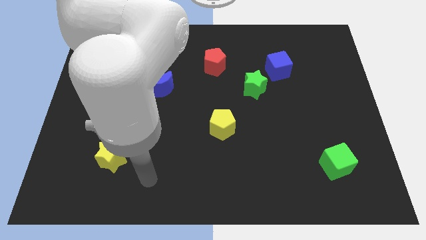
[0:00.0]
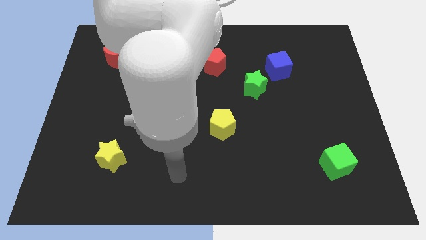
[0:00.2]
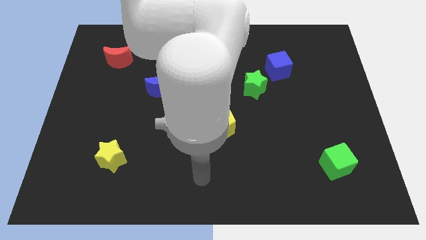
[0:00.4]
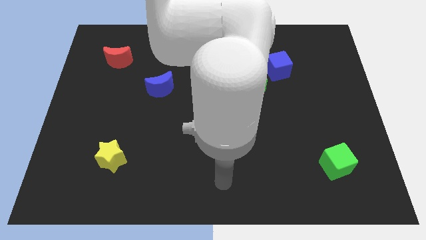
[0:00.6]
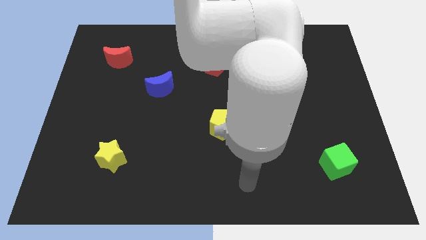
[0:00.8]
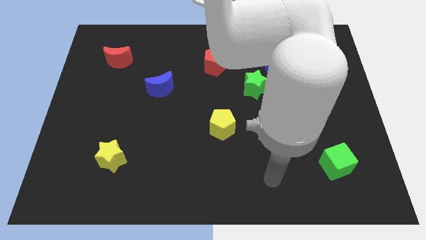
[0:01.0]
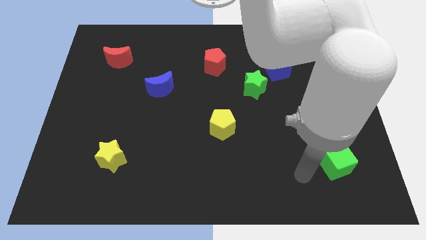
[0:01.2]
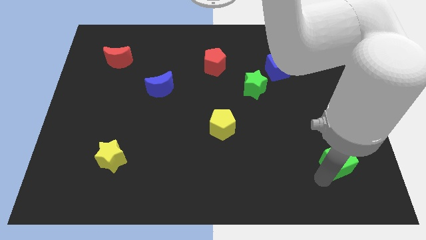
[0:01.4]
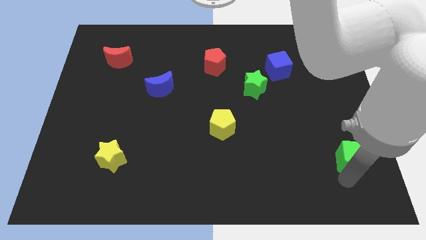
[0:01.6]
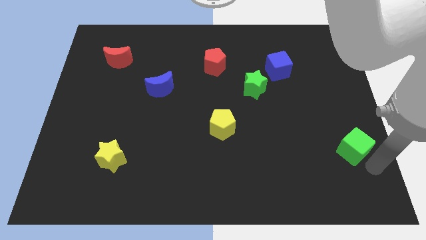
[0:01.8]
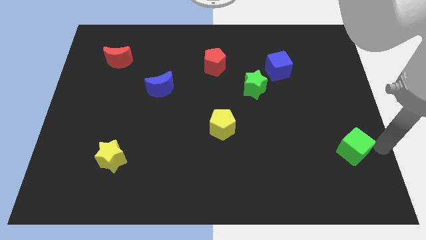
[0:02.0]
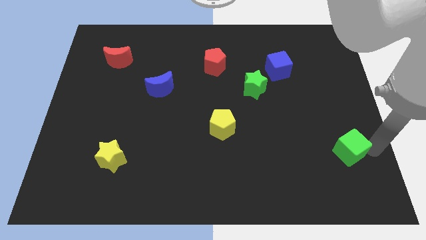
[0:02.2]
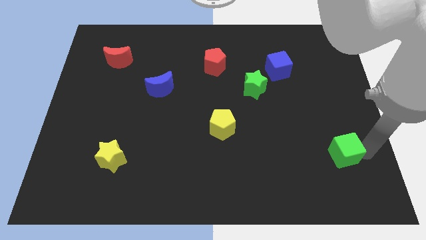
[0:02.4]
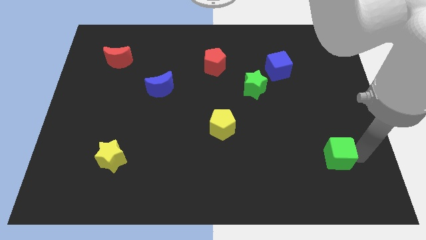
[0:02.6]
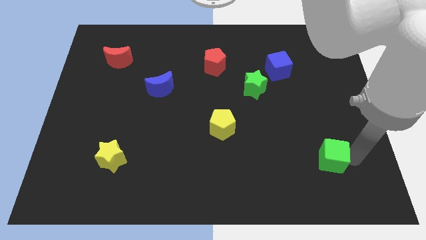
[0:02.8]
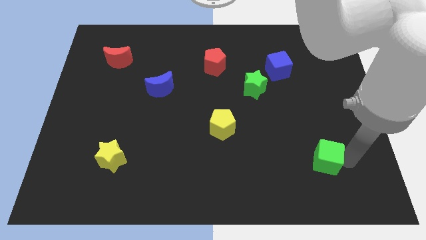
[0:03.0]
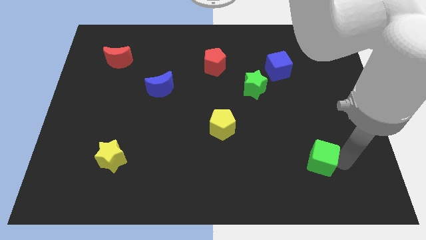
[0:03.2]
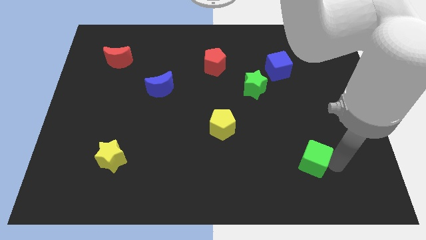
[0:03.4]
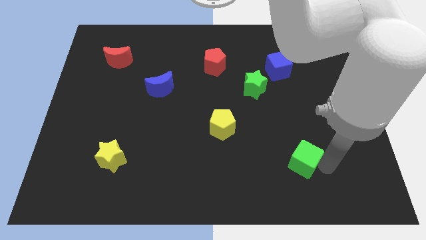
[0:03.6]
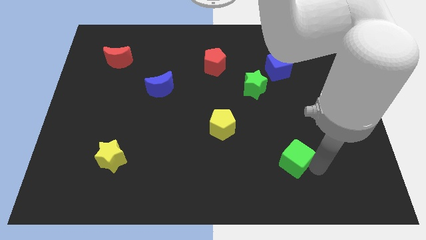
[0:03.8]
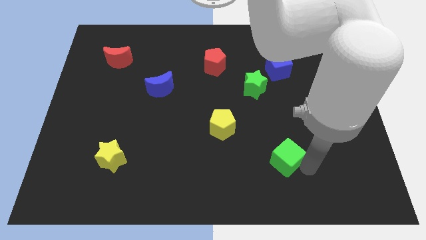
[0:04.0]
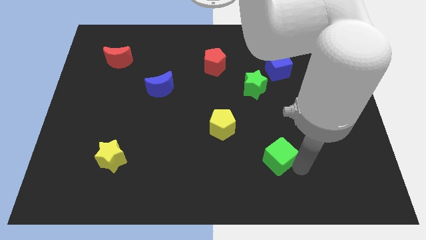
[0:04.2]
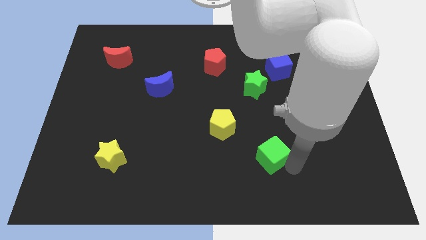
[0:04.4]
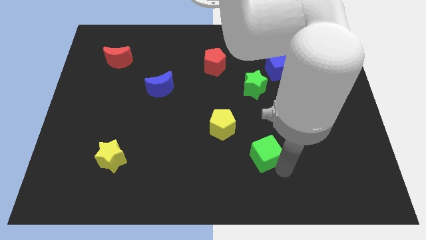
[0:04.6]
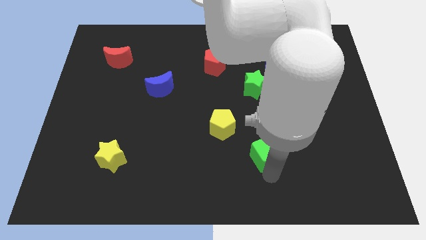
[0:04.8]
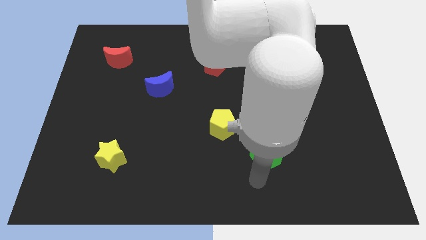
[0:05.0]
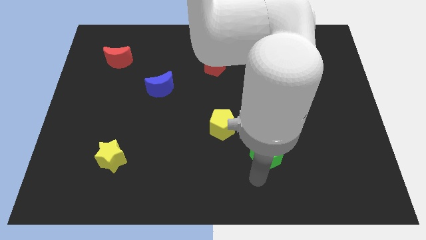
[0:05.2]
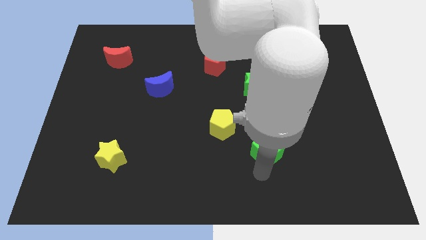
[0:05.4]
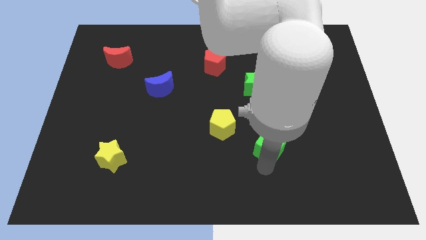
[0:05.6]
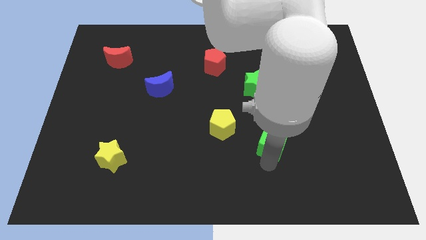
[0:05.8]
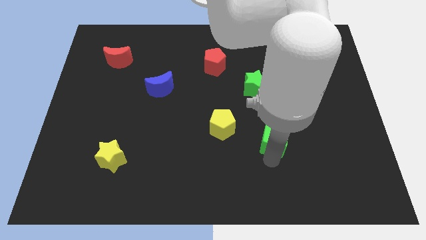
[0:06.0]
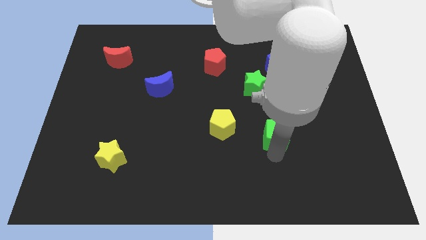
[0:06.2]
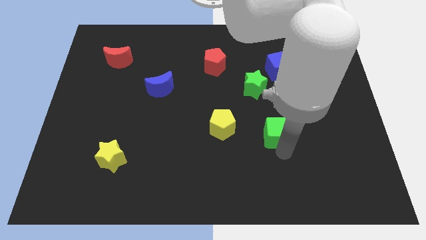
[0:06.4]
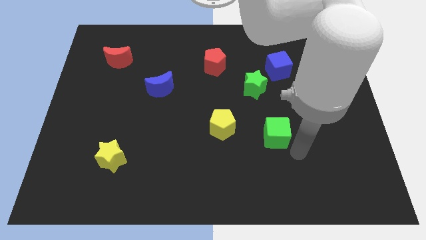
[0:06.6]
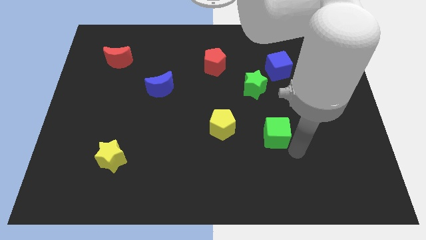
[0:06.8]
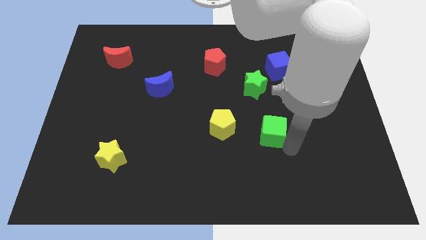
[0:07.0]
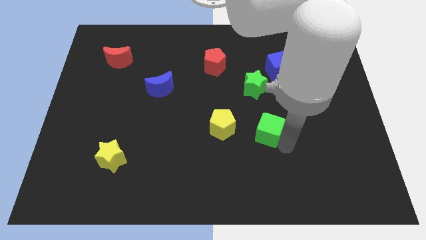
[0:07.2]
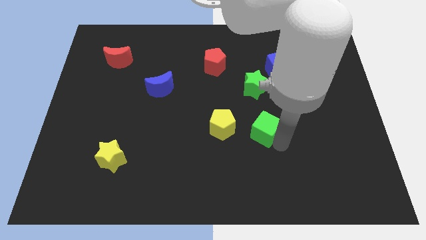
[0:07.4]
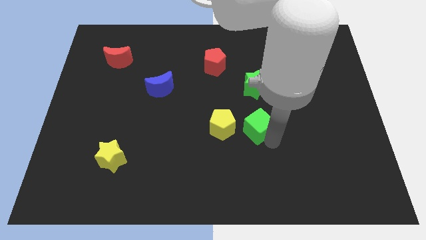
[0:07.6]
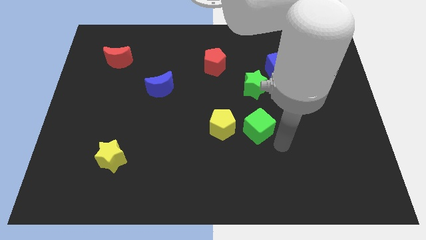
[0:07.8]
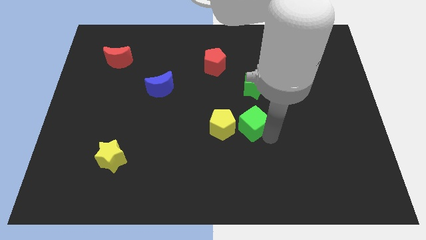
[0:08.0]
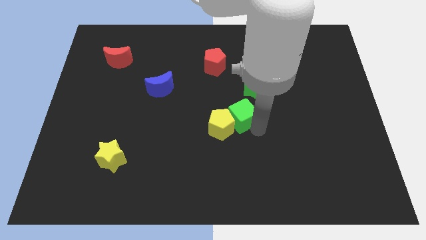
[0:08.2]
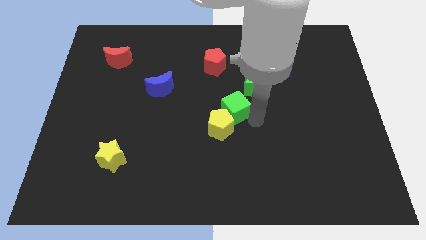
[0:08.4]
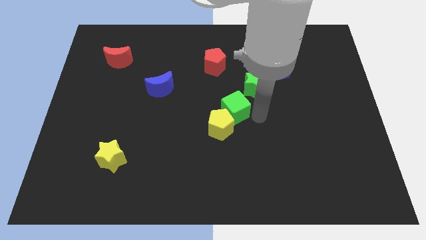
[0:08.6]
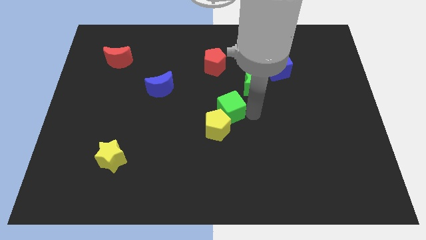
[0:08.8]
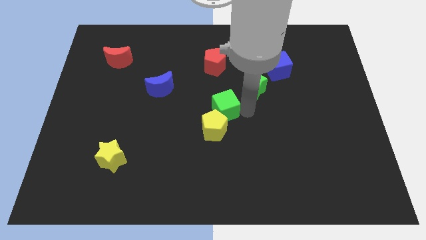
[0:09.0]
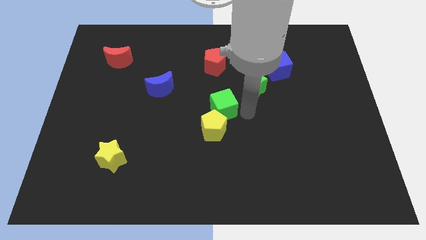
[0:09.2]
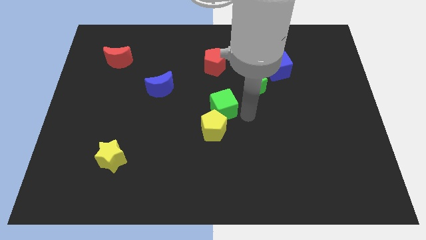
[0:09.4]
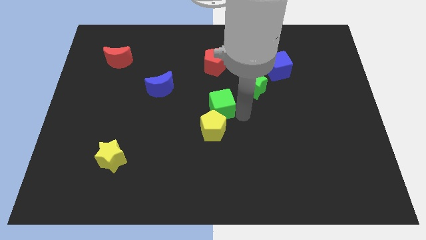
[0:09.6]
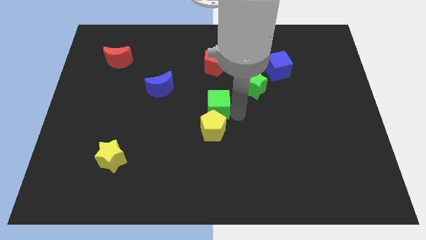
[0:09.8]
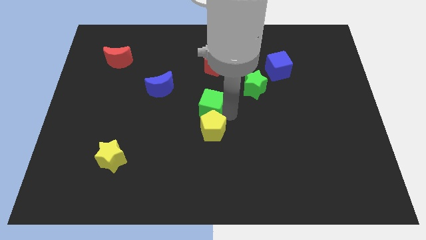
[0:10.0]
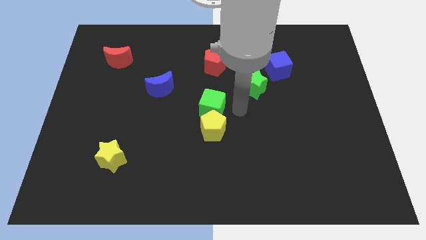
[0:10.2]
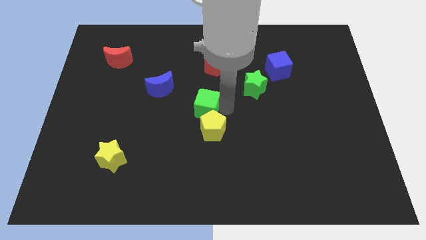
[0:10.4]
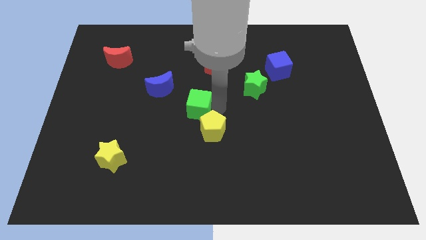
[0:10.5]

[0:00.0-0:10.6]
put the green cube to the bottom right of the blue moon
